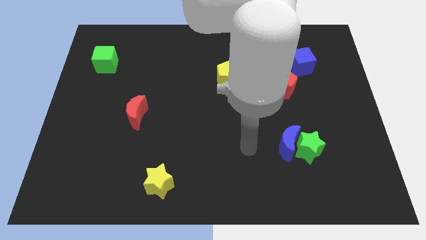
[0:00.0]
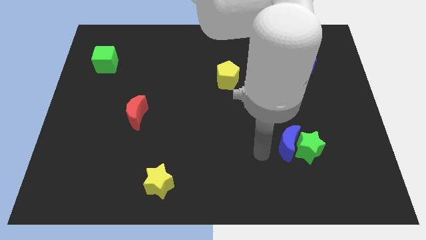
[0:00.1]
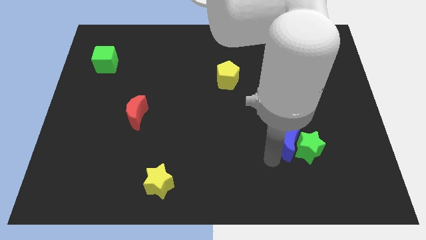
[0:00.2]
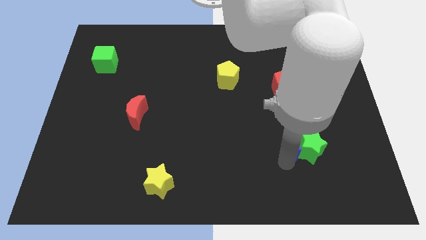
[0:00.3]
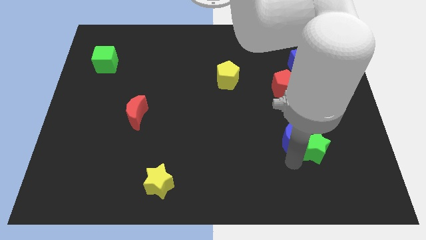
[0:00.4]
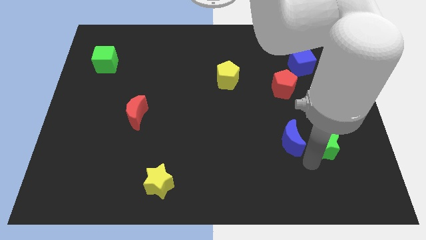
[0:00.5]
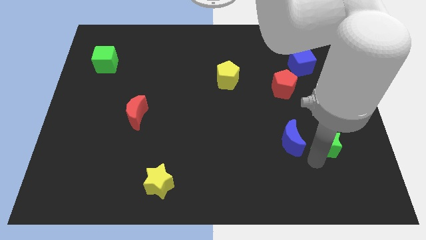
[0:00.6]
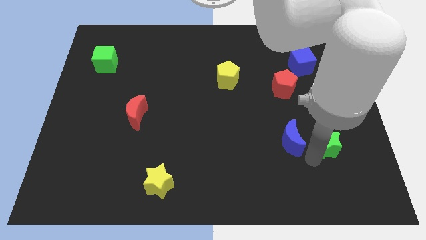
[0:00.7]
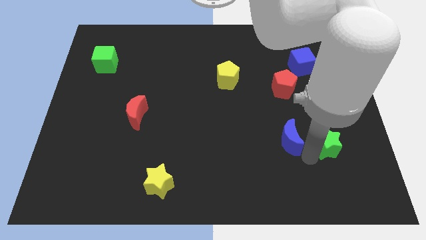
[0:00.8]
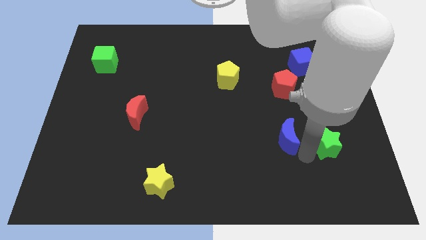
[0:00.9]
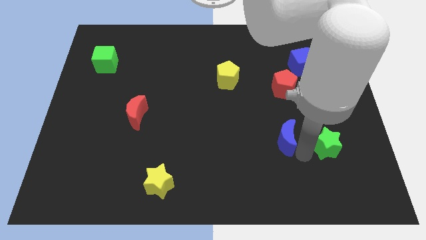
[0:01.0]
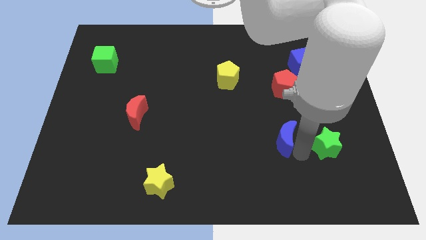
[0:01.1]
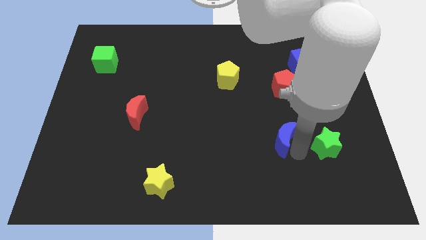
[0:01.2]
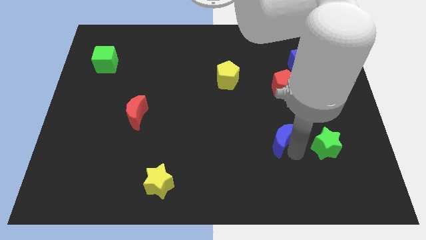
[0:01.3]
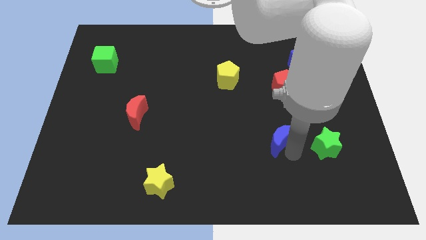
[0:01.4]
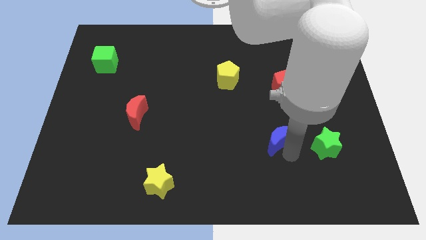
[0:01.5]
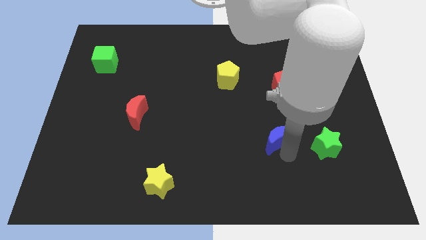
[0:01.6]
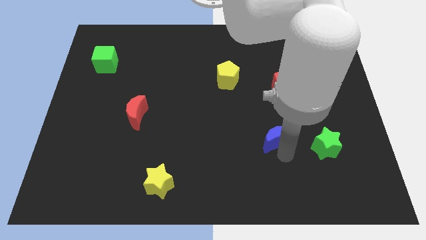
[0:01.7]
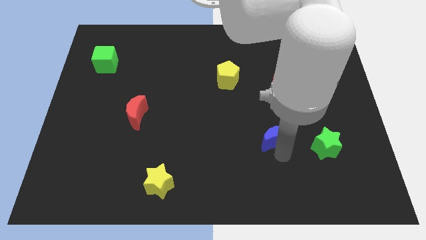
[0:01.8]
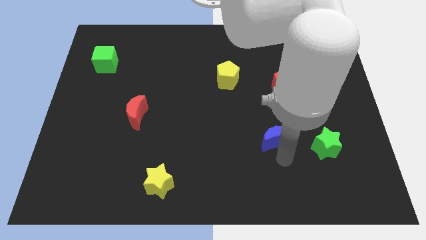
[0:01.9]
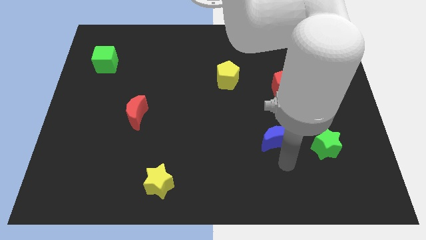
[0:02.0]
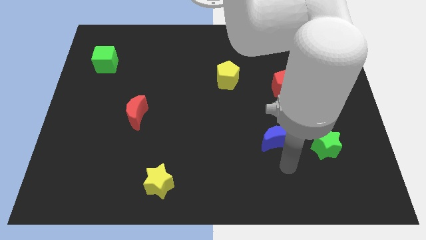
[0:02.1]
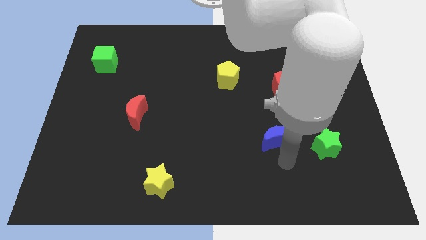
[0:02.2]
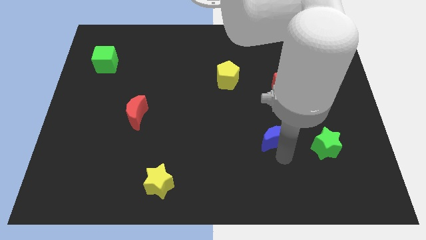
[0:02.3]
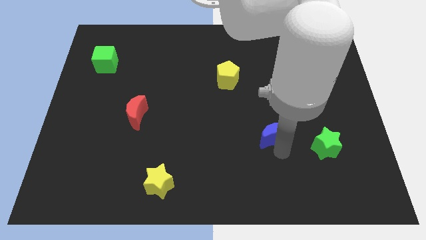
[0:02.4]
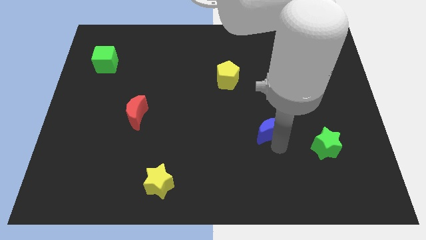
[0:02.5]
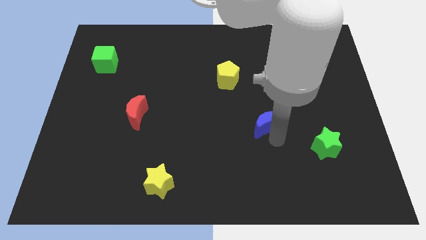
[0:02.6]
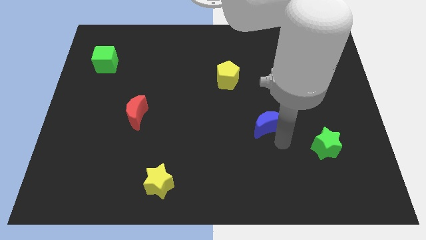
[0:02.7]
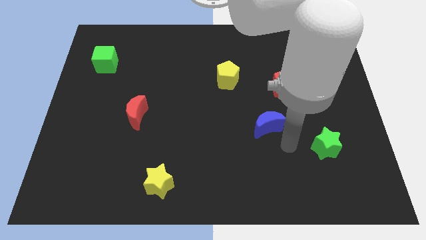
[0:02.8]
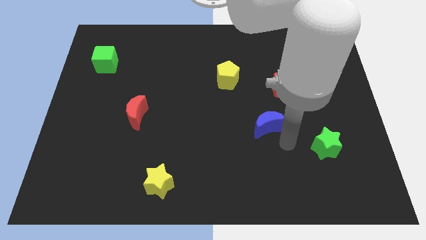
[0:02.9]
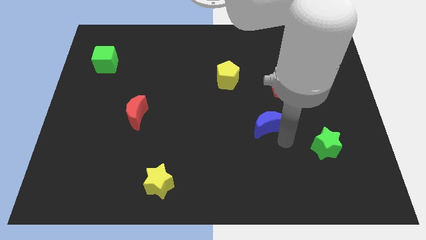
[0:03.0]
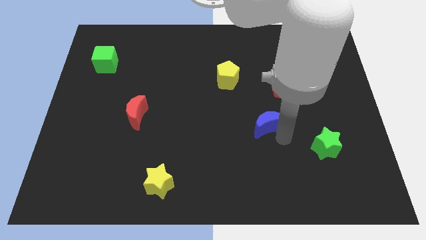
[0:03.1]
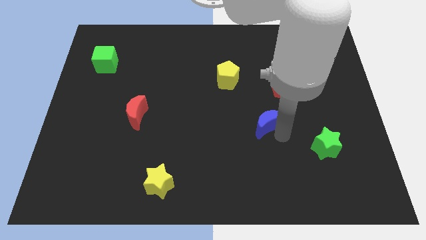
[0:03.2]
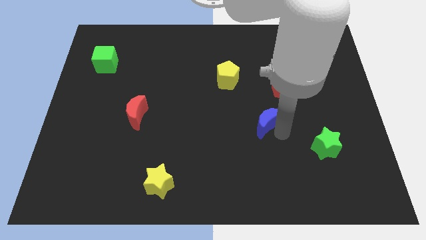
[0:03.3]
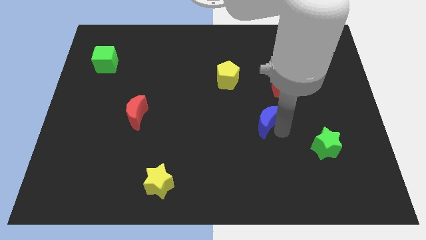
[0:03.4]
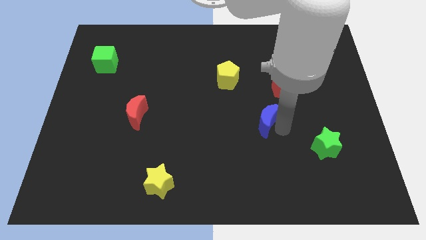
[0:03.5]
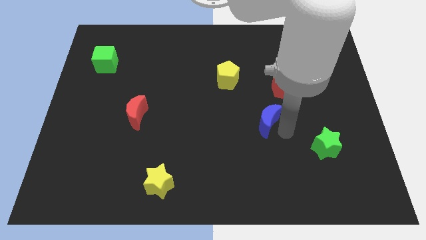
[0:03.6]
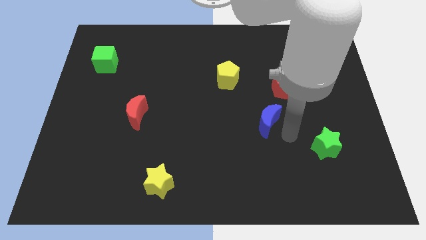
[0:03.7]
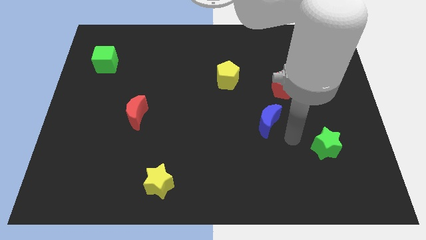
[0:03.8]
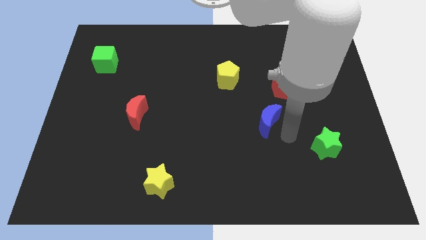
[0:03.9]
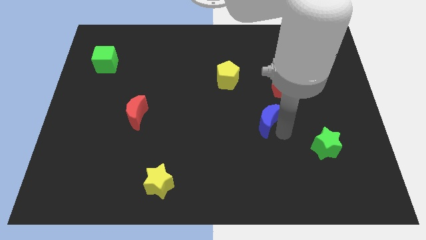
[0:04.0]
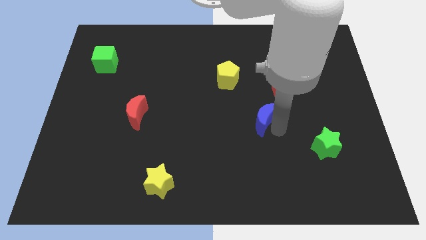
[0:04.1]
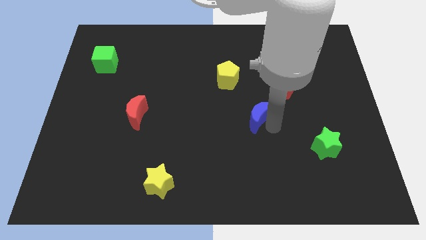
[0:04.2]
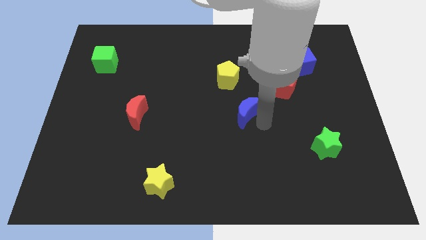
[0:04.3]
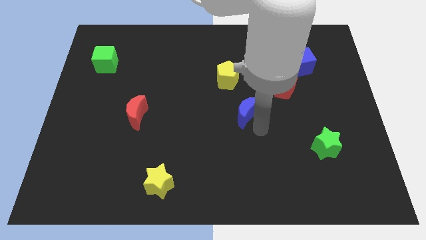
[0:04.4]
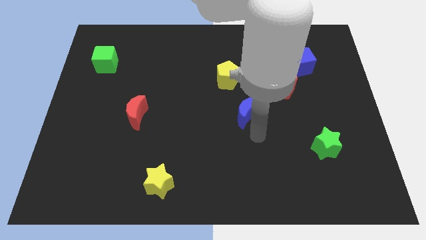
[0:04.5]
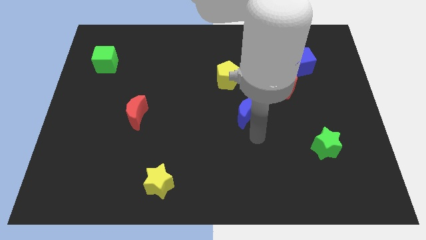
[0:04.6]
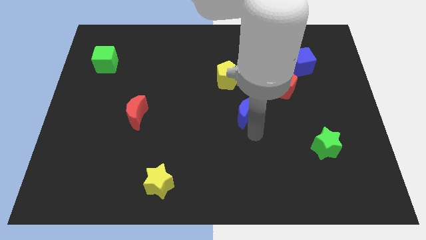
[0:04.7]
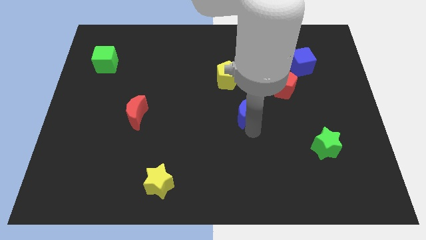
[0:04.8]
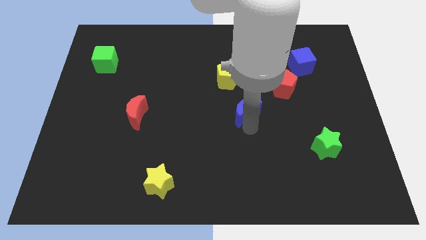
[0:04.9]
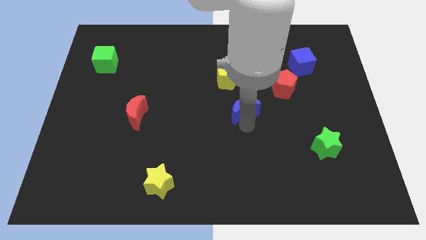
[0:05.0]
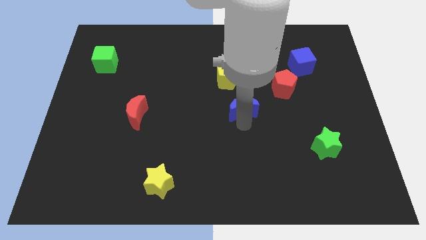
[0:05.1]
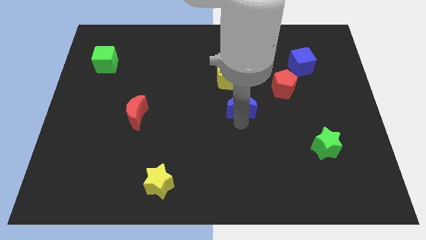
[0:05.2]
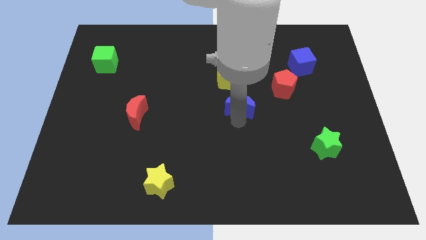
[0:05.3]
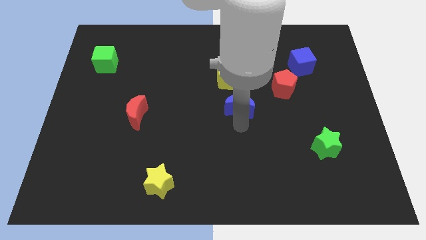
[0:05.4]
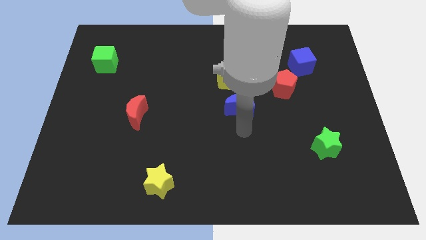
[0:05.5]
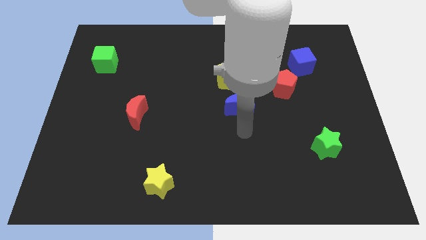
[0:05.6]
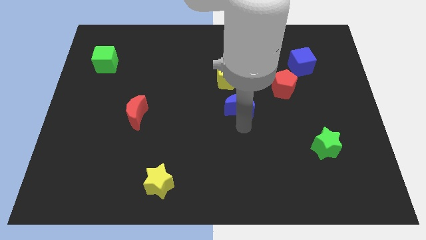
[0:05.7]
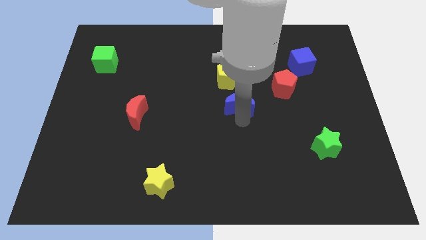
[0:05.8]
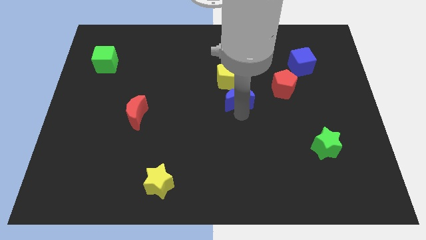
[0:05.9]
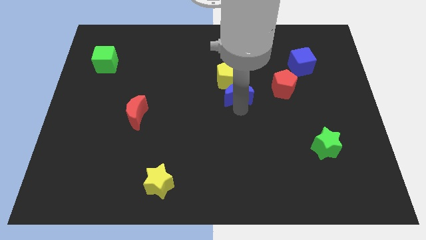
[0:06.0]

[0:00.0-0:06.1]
push the blue moon towards the yellow pentagon
